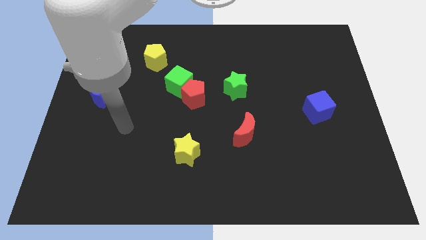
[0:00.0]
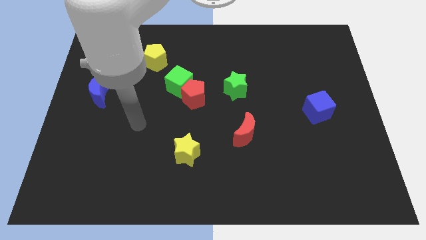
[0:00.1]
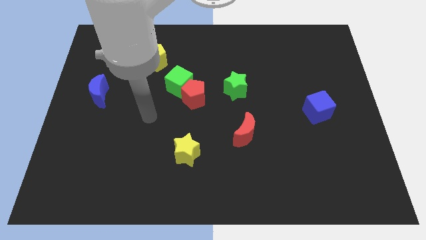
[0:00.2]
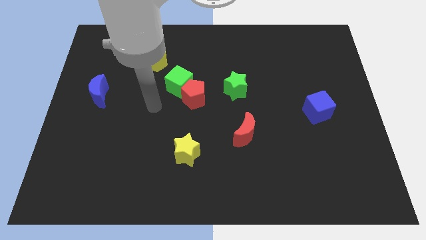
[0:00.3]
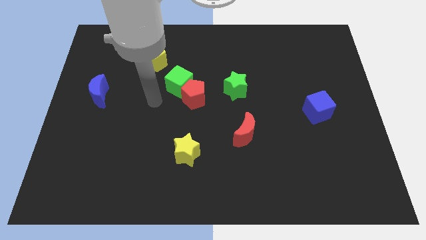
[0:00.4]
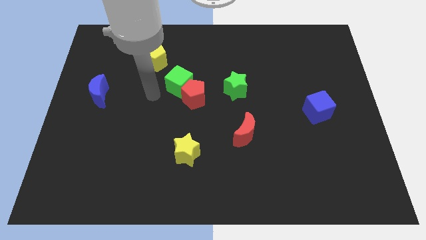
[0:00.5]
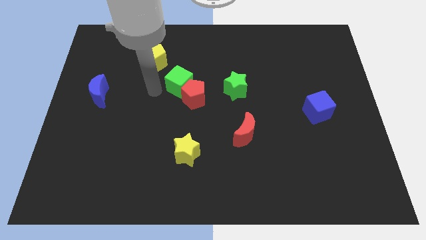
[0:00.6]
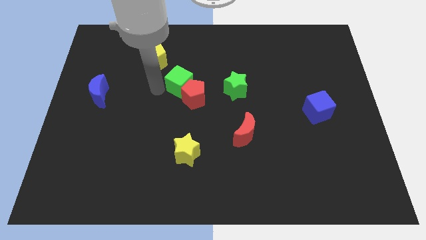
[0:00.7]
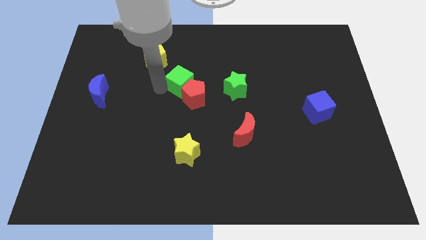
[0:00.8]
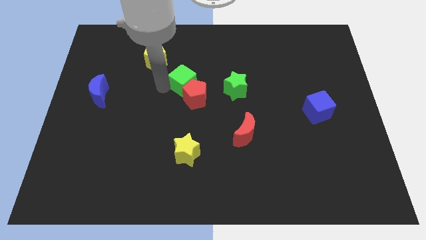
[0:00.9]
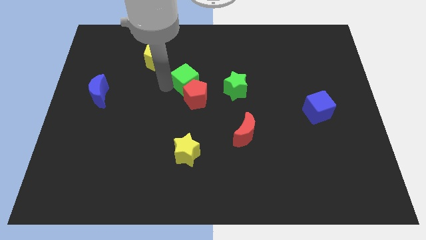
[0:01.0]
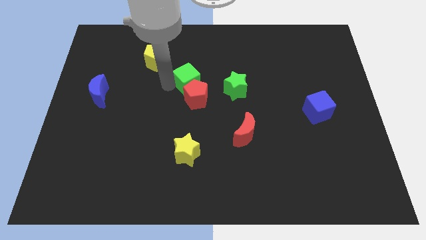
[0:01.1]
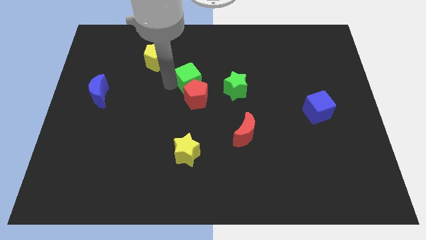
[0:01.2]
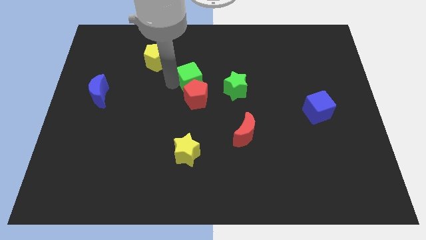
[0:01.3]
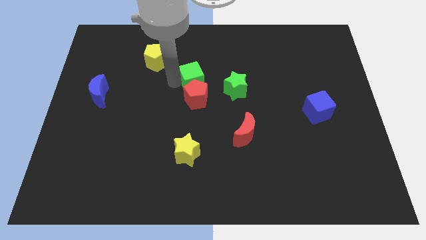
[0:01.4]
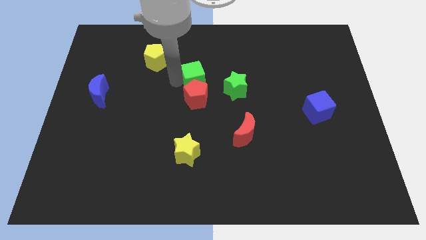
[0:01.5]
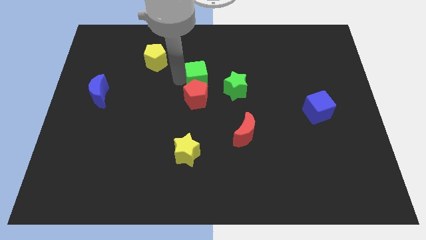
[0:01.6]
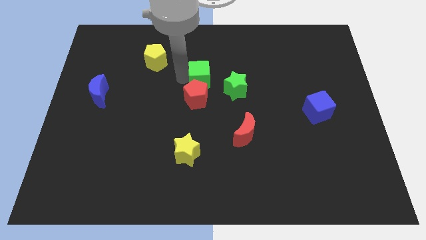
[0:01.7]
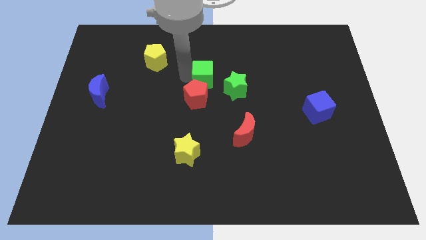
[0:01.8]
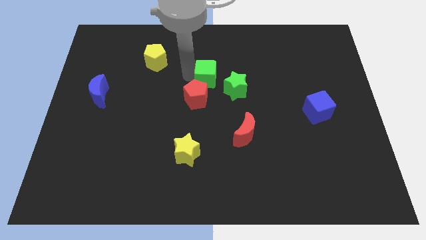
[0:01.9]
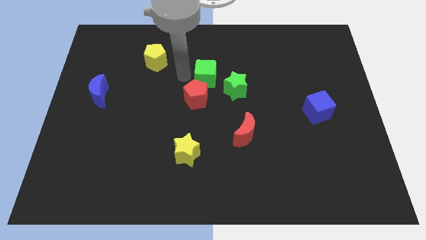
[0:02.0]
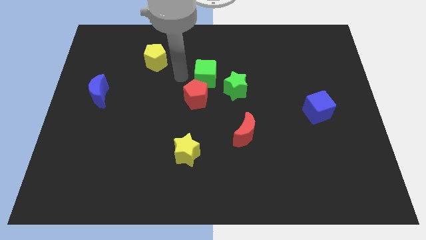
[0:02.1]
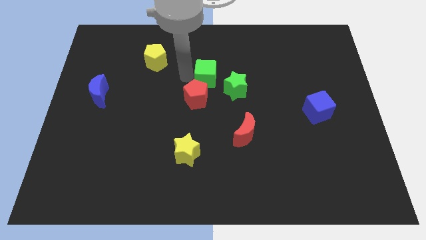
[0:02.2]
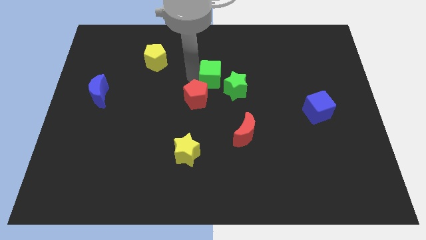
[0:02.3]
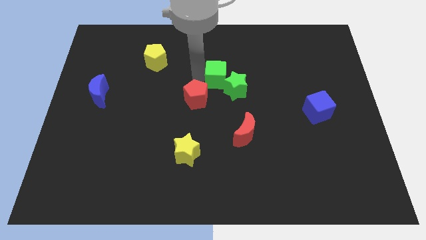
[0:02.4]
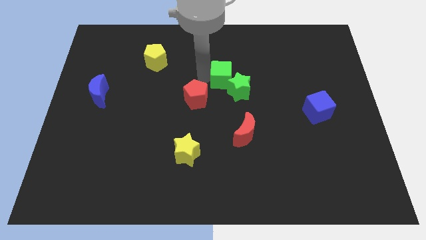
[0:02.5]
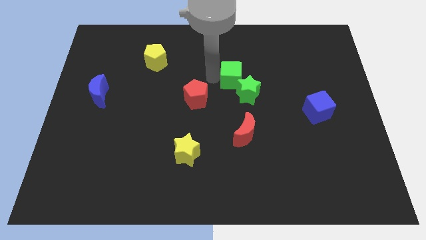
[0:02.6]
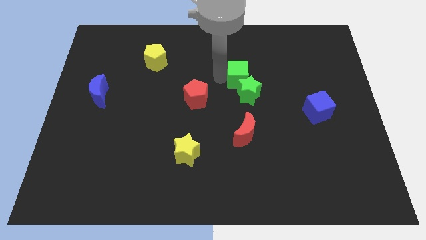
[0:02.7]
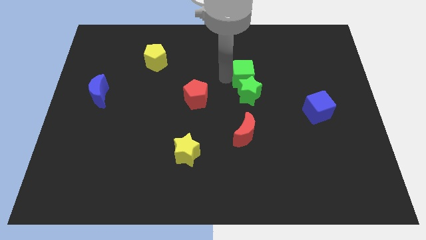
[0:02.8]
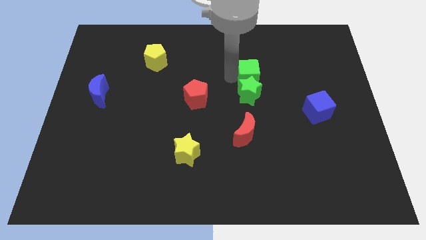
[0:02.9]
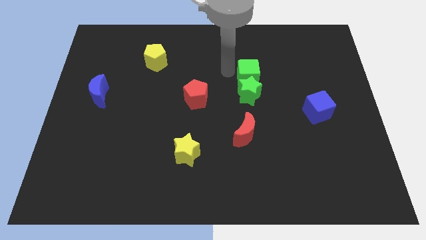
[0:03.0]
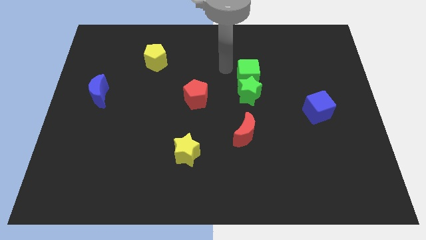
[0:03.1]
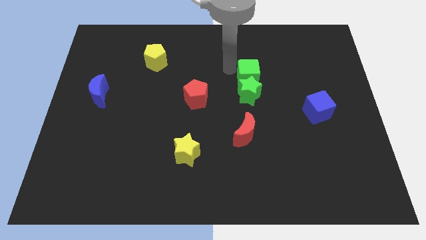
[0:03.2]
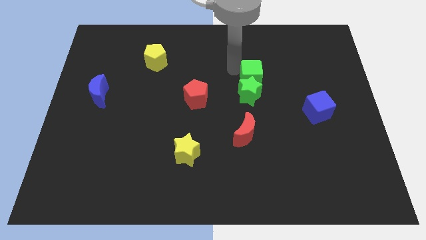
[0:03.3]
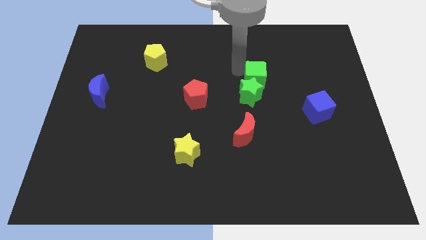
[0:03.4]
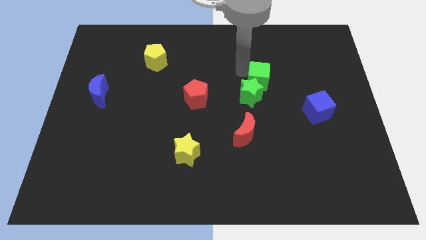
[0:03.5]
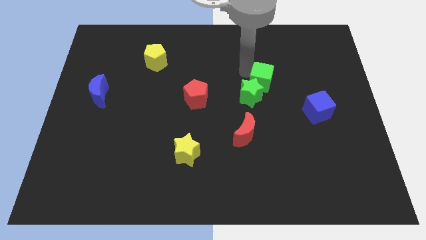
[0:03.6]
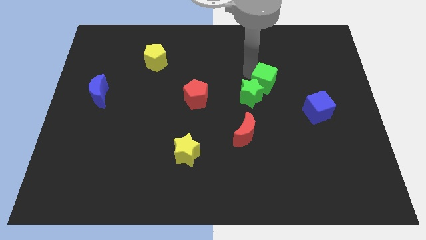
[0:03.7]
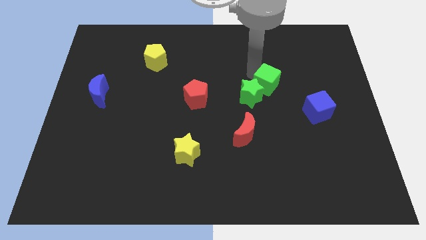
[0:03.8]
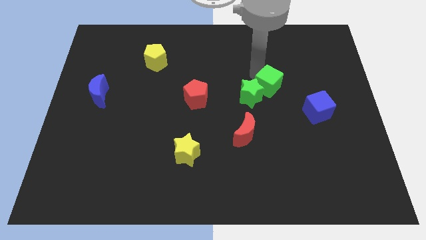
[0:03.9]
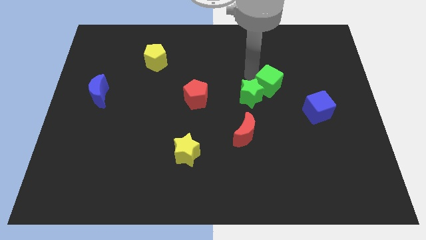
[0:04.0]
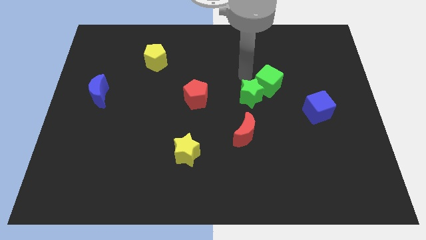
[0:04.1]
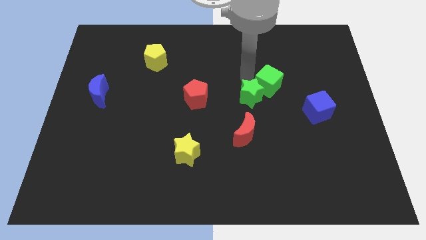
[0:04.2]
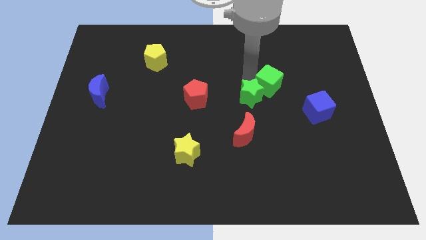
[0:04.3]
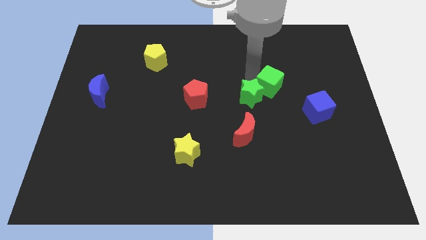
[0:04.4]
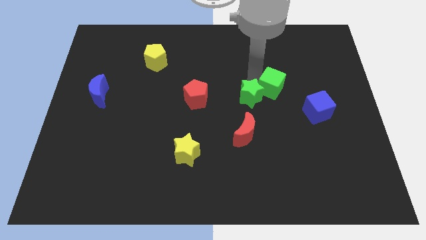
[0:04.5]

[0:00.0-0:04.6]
slide the green cube to the top left side of the blue cube

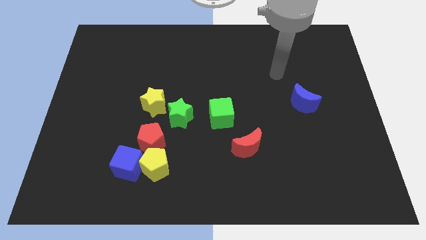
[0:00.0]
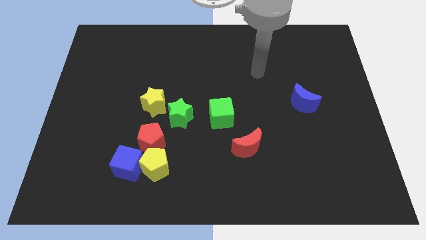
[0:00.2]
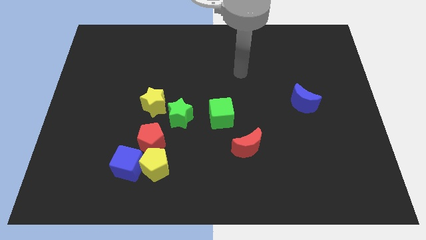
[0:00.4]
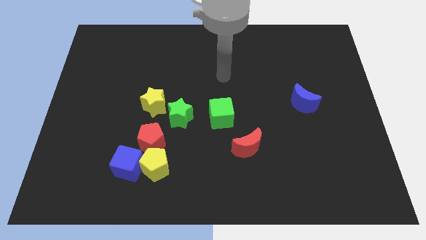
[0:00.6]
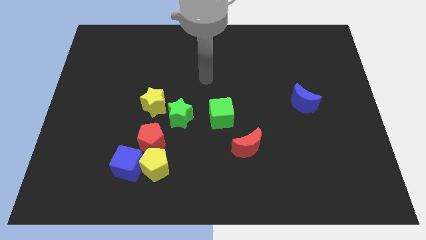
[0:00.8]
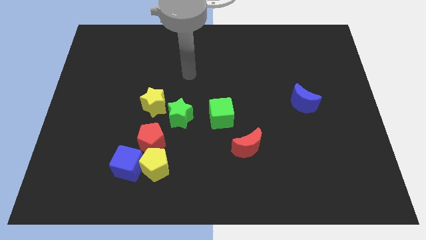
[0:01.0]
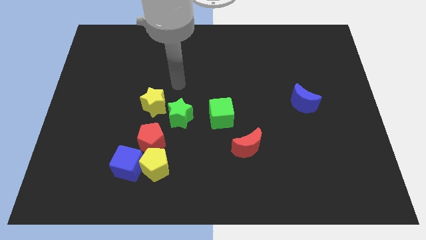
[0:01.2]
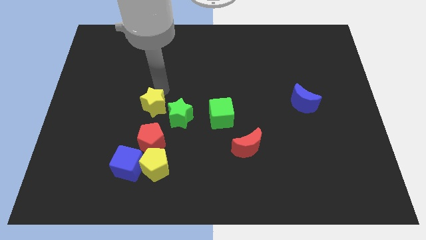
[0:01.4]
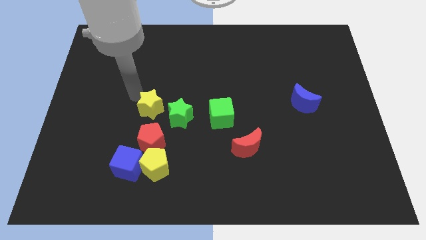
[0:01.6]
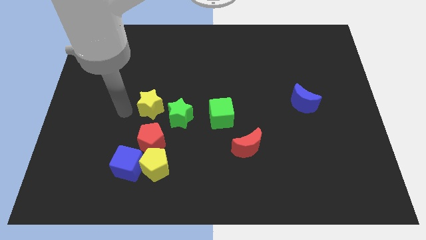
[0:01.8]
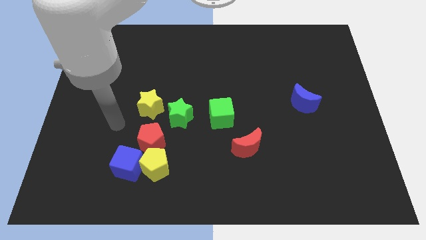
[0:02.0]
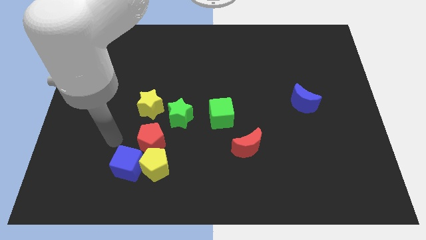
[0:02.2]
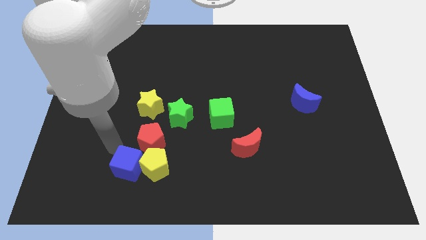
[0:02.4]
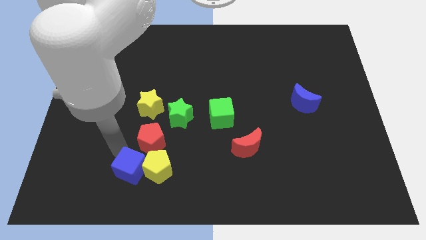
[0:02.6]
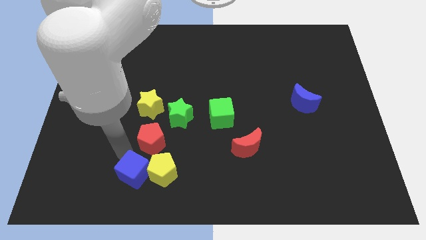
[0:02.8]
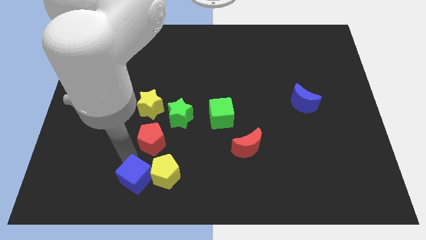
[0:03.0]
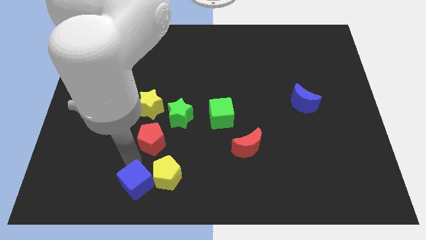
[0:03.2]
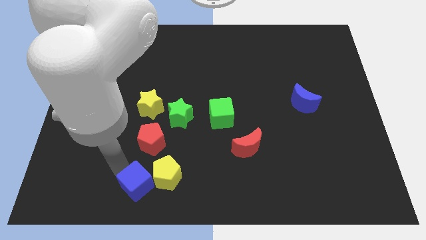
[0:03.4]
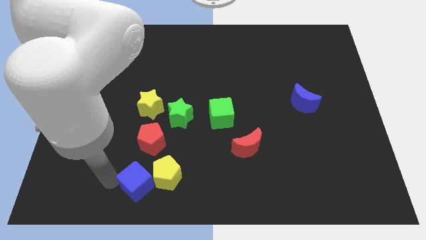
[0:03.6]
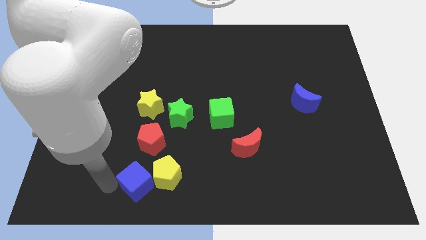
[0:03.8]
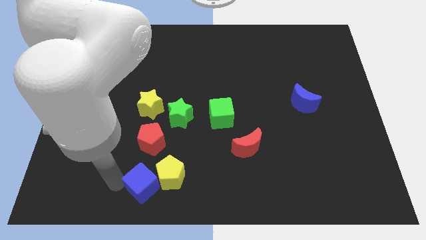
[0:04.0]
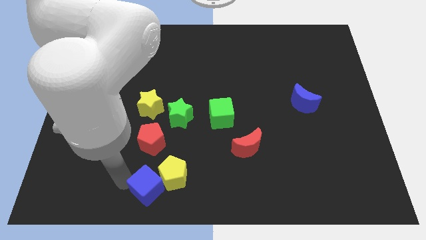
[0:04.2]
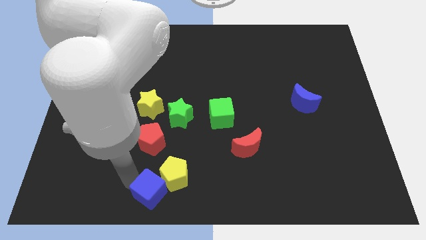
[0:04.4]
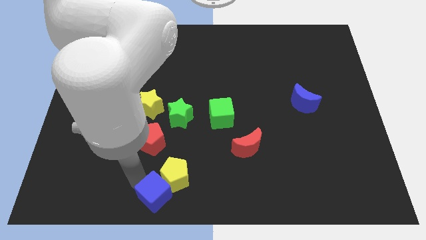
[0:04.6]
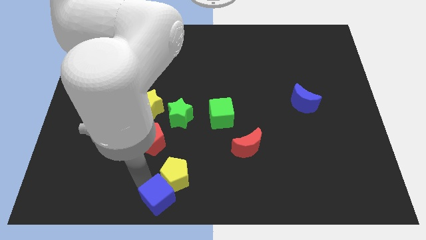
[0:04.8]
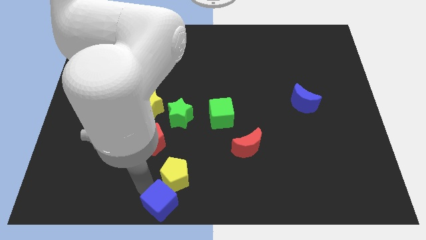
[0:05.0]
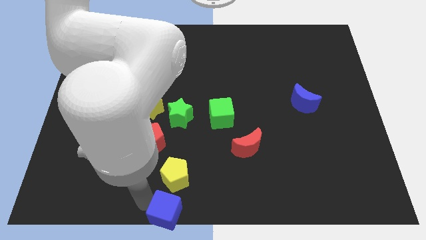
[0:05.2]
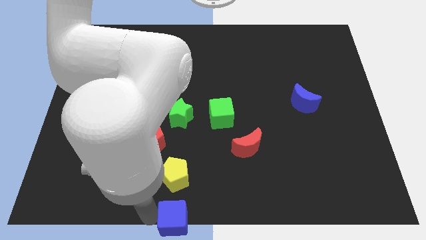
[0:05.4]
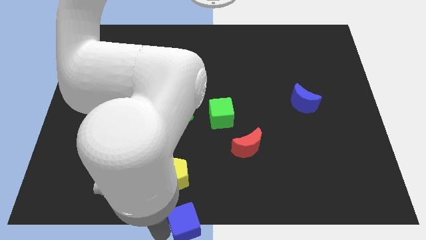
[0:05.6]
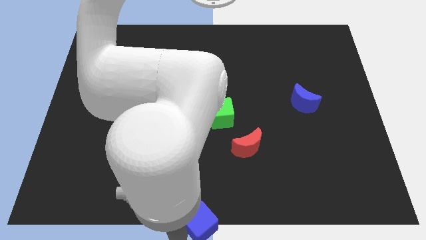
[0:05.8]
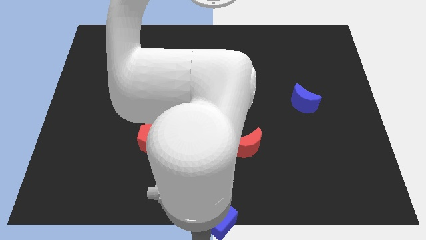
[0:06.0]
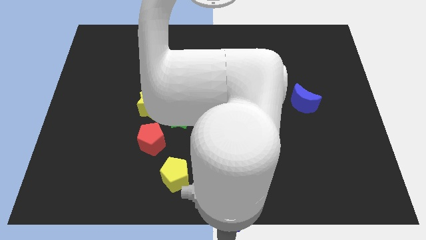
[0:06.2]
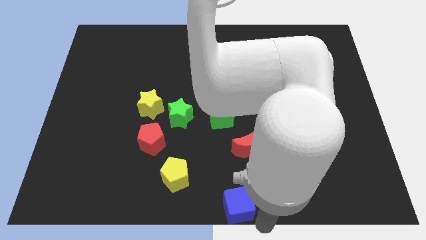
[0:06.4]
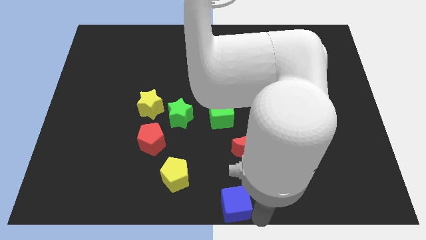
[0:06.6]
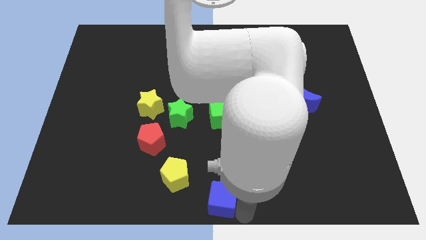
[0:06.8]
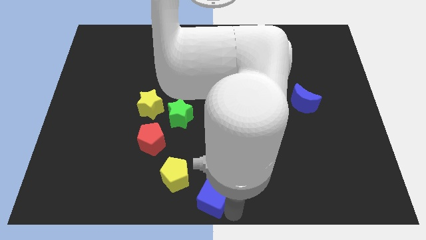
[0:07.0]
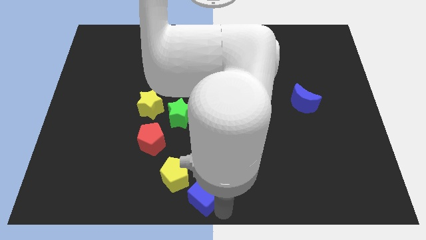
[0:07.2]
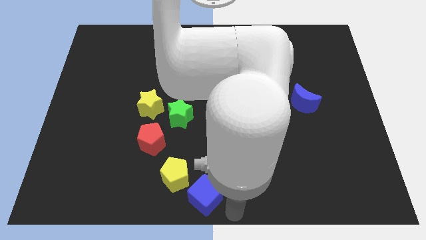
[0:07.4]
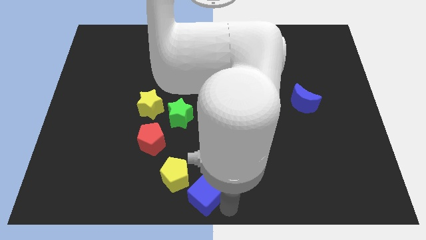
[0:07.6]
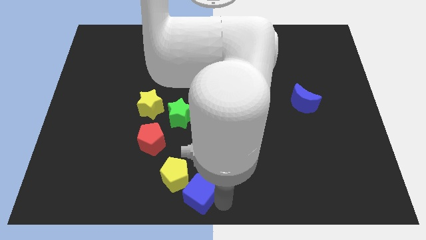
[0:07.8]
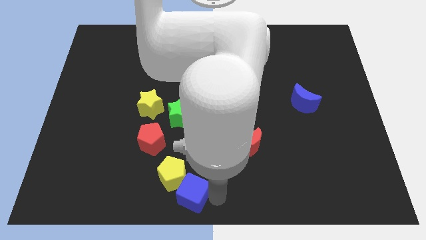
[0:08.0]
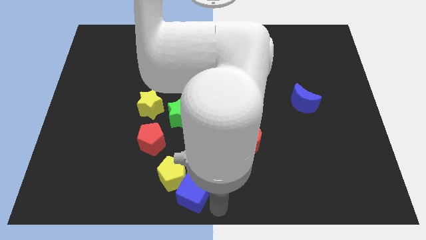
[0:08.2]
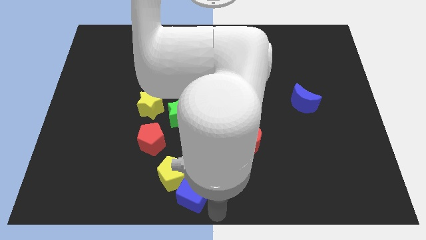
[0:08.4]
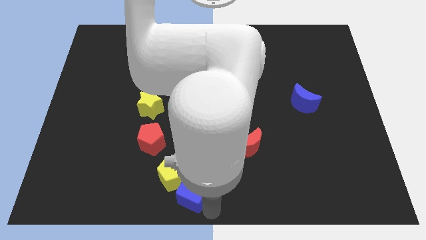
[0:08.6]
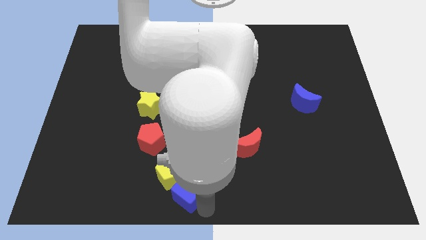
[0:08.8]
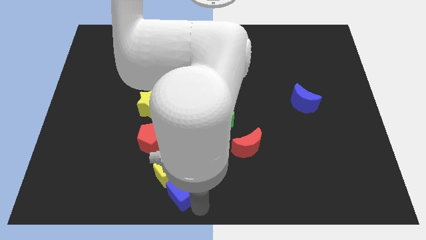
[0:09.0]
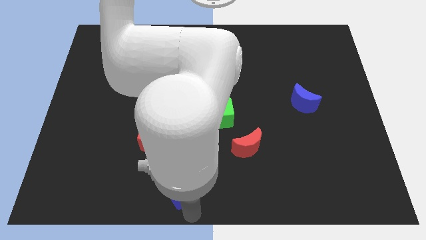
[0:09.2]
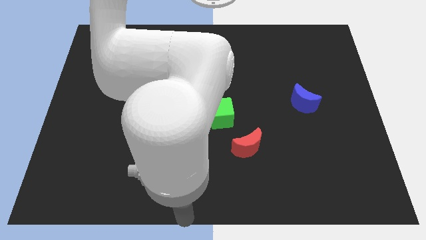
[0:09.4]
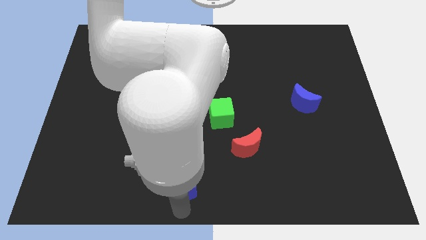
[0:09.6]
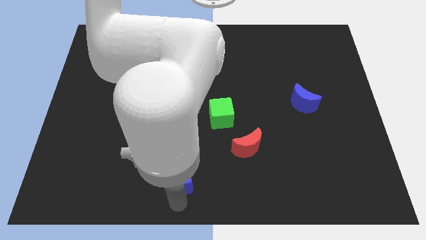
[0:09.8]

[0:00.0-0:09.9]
put the blue cube to the bottom side of the green star
